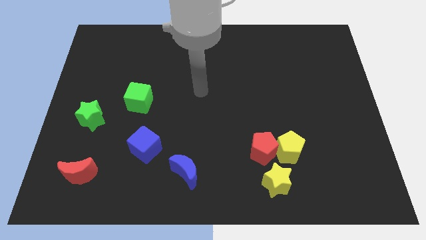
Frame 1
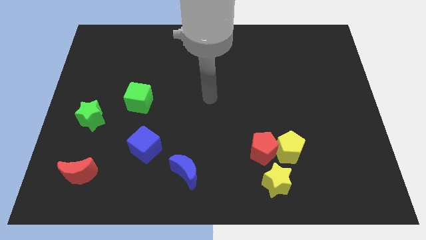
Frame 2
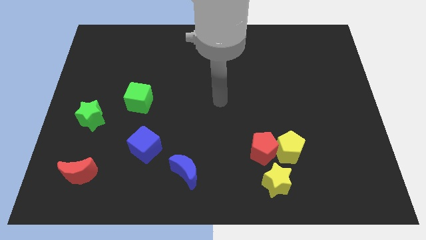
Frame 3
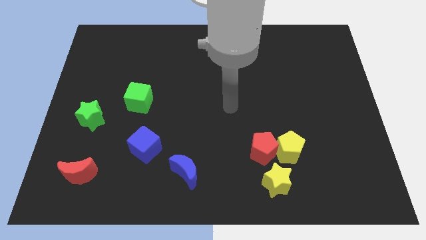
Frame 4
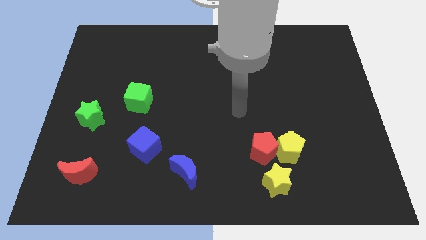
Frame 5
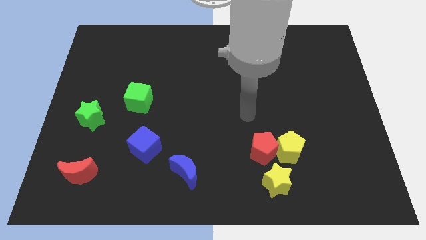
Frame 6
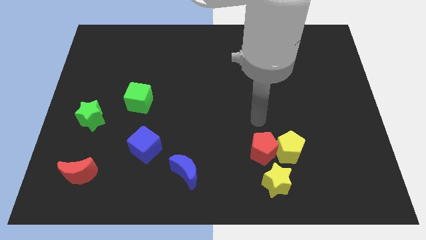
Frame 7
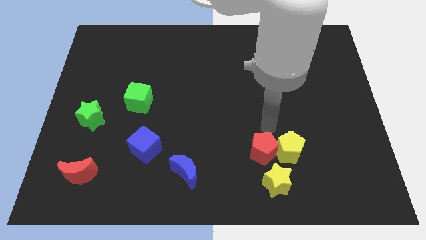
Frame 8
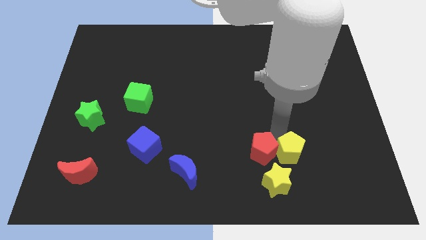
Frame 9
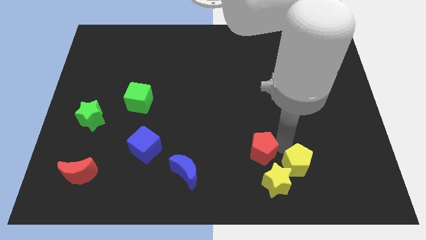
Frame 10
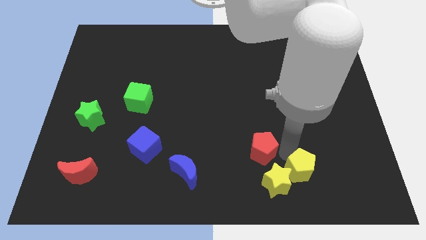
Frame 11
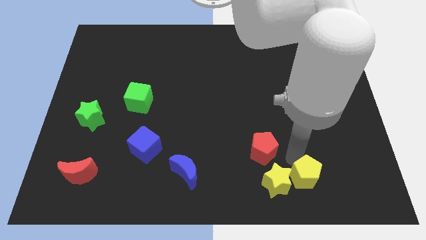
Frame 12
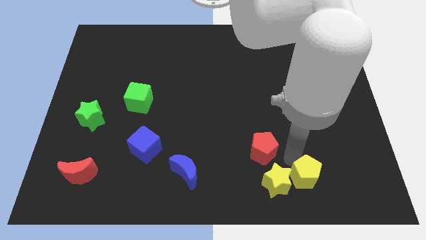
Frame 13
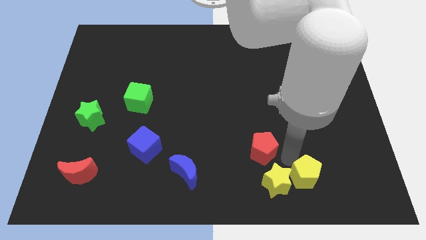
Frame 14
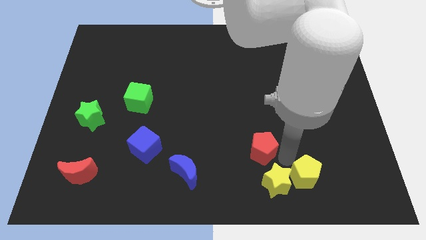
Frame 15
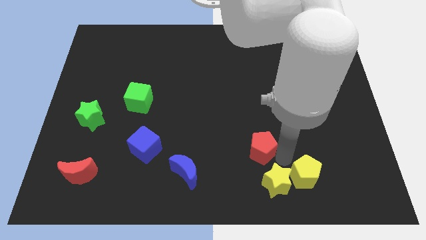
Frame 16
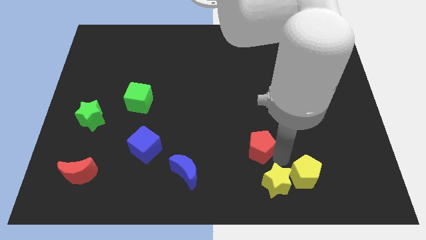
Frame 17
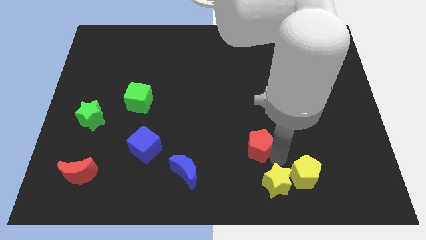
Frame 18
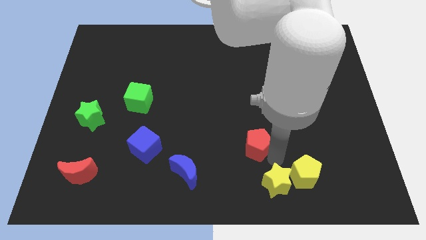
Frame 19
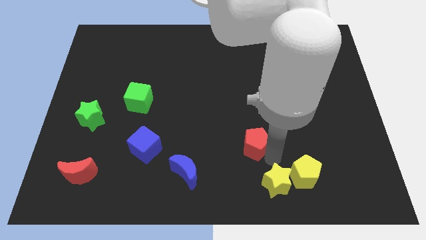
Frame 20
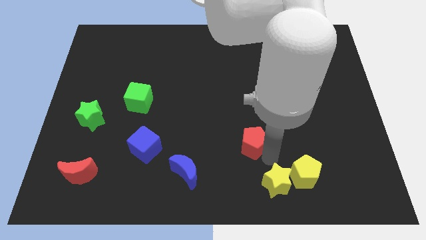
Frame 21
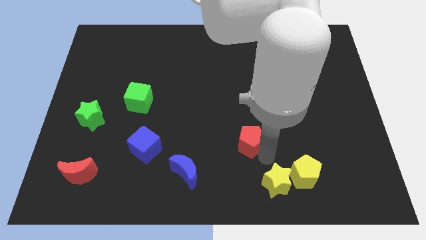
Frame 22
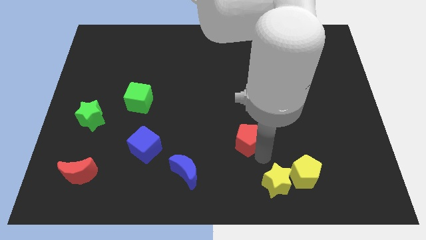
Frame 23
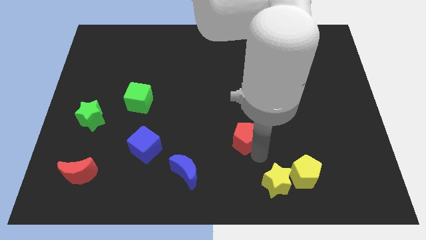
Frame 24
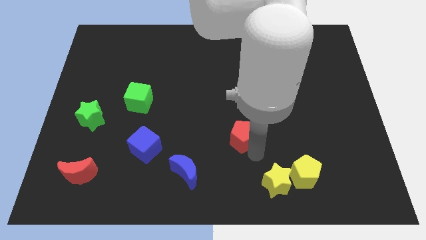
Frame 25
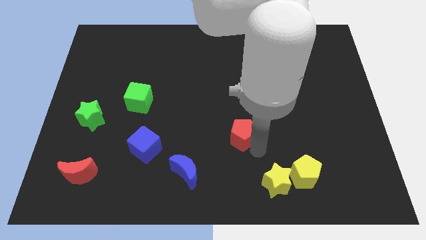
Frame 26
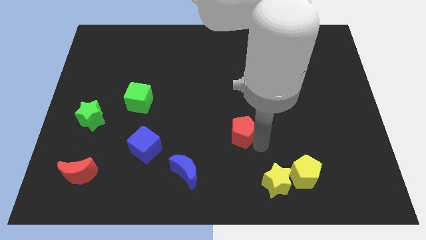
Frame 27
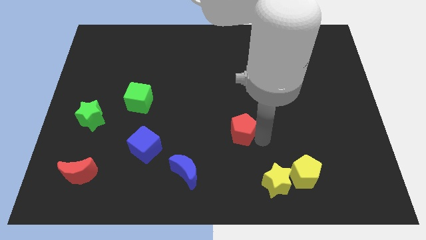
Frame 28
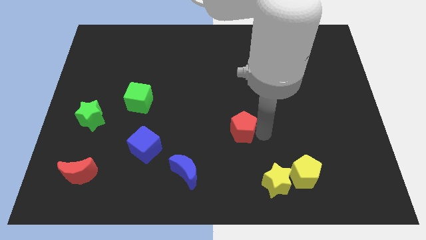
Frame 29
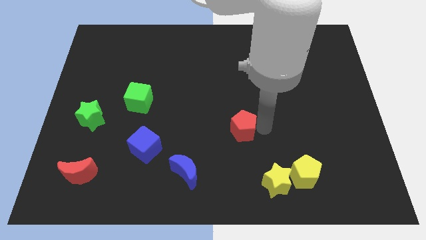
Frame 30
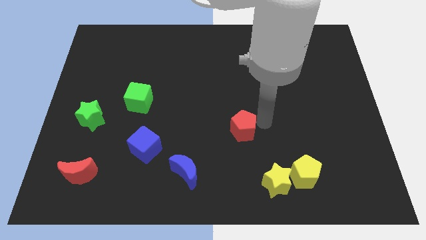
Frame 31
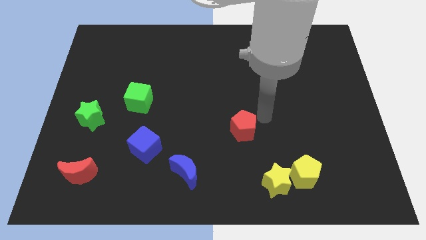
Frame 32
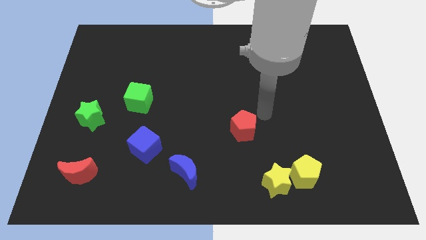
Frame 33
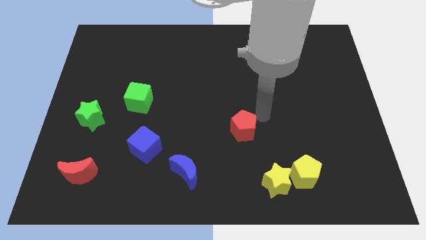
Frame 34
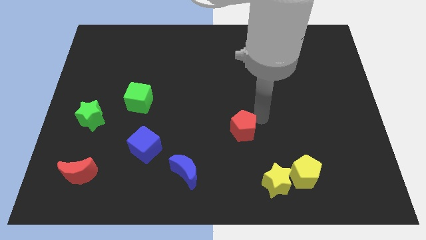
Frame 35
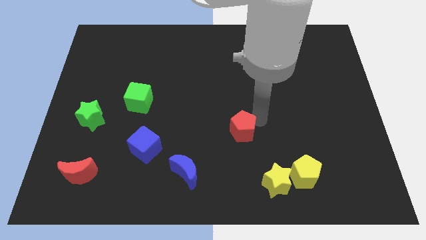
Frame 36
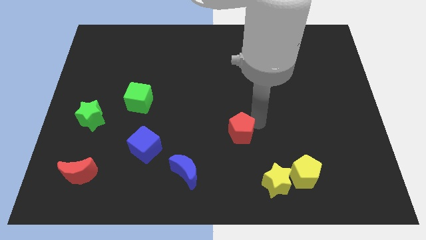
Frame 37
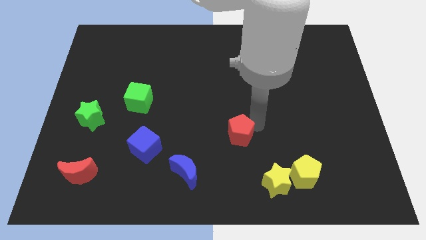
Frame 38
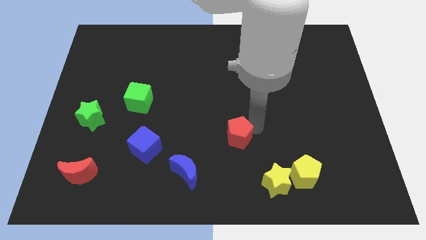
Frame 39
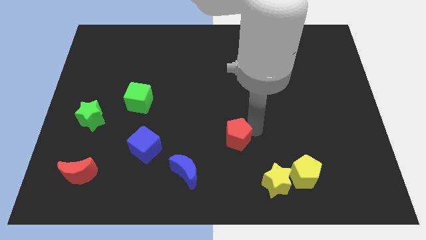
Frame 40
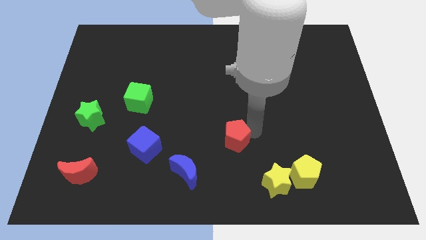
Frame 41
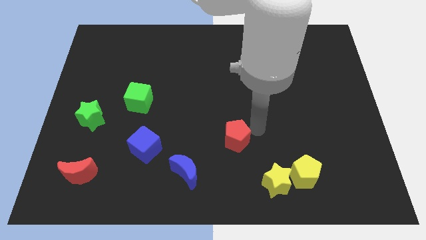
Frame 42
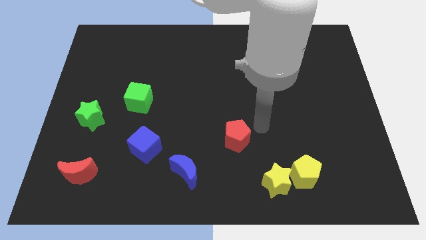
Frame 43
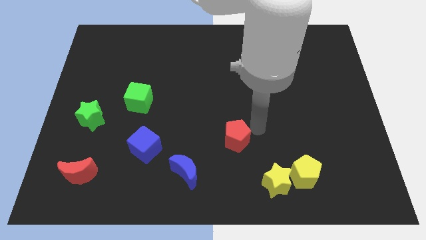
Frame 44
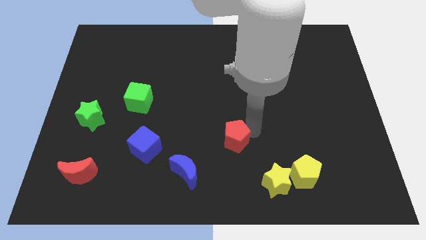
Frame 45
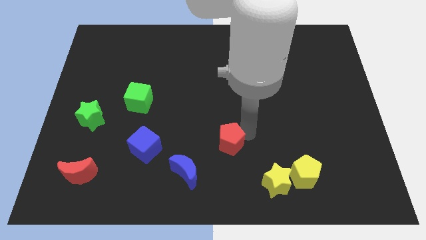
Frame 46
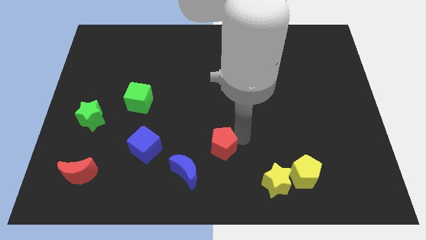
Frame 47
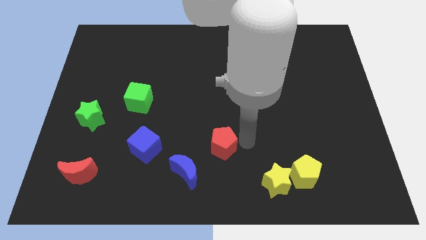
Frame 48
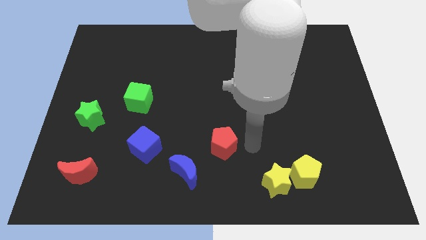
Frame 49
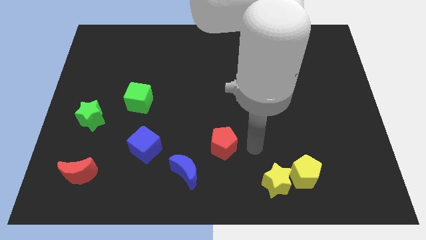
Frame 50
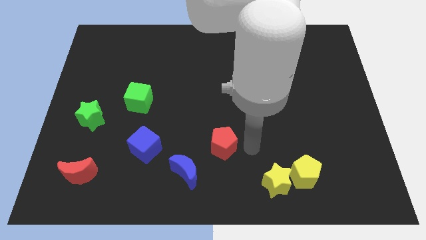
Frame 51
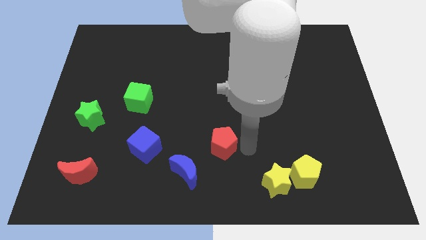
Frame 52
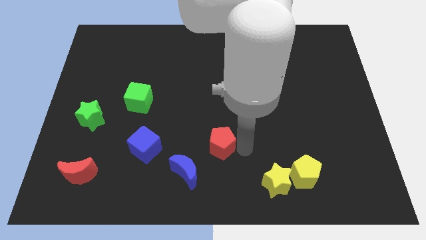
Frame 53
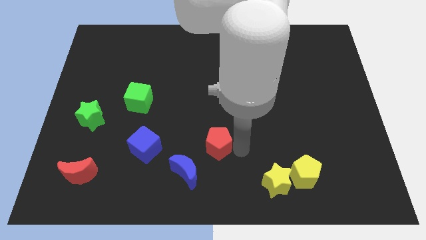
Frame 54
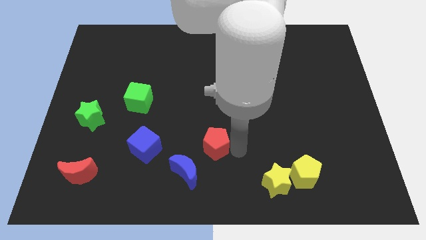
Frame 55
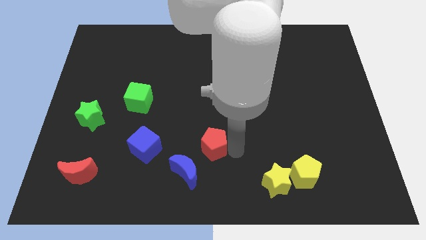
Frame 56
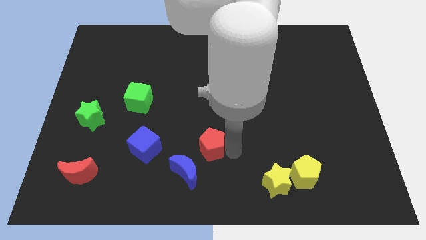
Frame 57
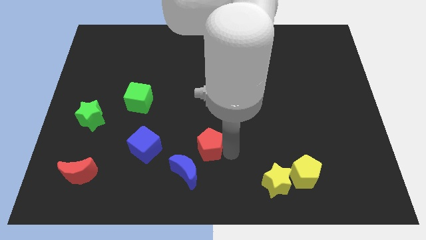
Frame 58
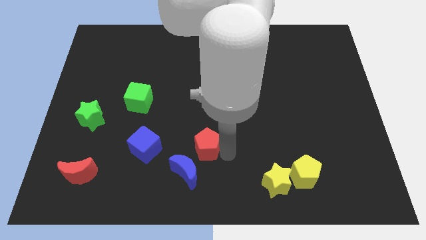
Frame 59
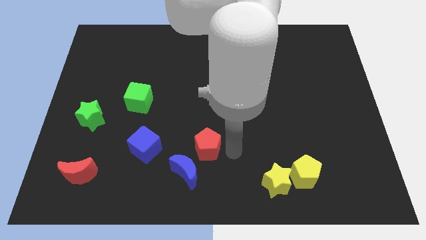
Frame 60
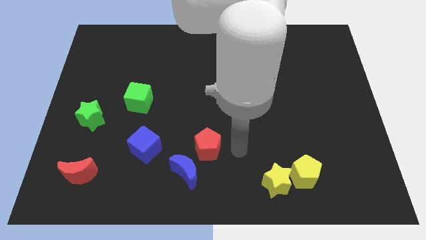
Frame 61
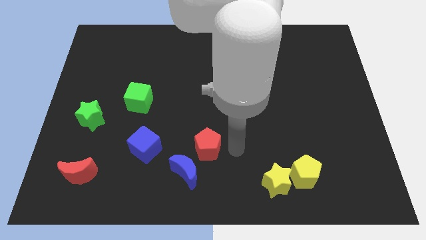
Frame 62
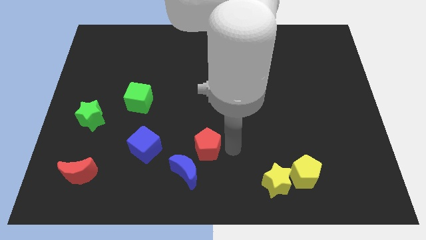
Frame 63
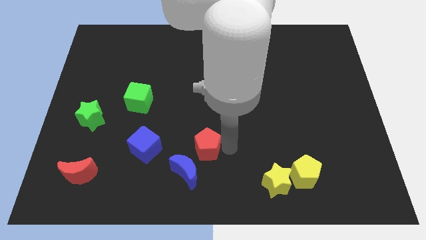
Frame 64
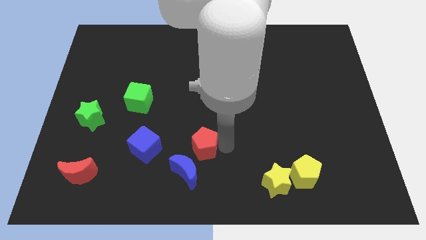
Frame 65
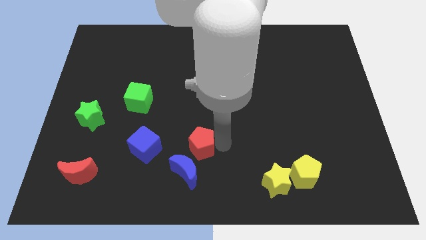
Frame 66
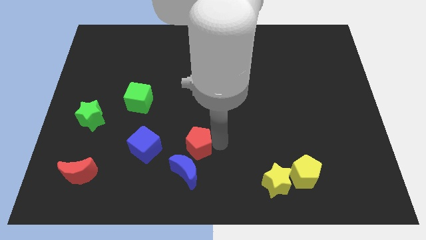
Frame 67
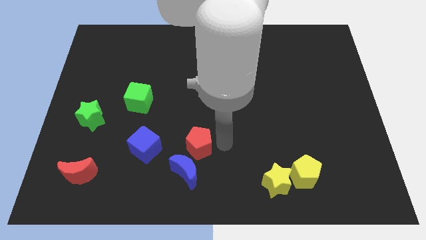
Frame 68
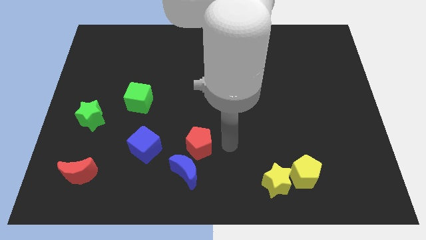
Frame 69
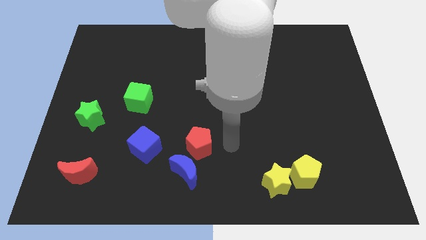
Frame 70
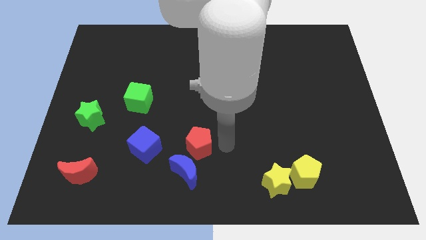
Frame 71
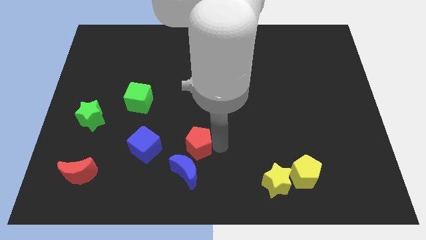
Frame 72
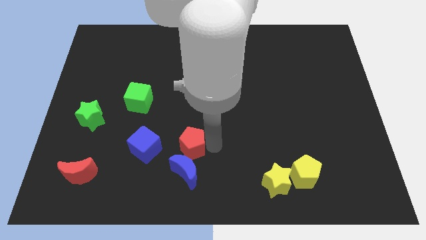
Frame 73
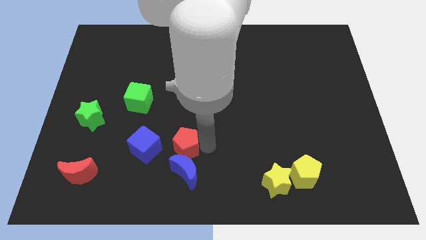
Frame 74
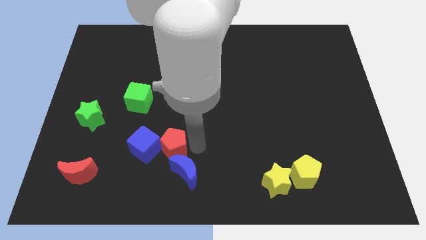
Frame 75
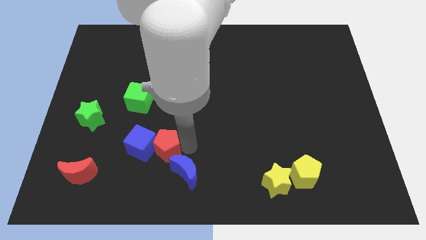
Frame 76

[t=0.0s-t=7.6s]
put the red pentagon next to the blue cube
